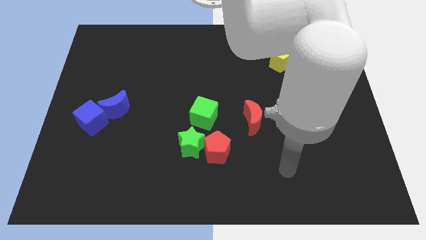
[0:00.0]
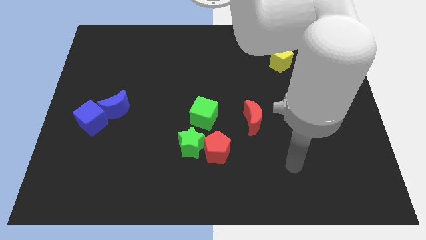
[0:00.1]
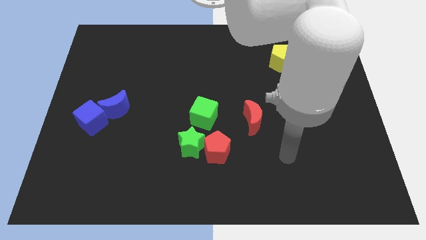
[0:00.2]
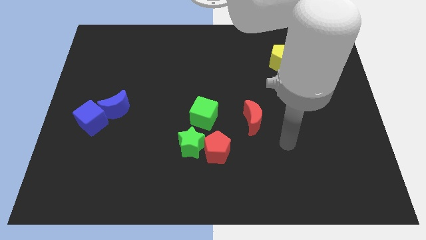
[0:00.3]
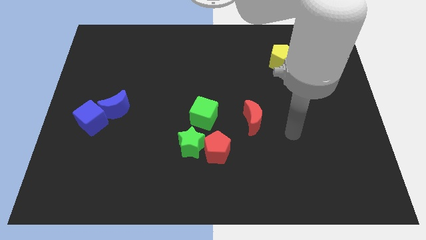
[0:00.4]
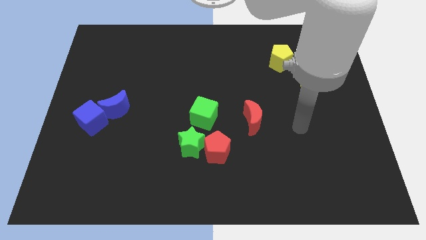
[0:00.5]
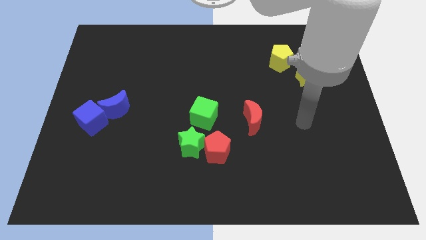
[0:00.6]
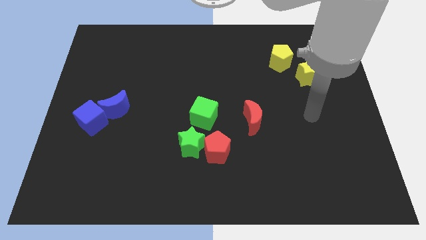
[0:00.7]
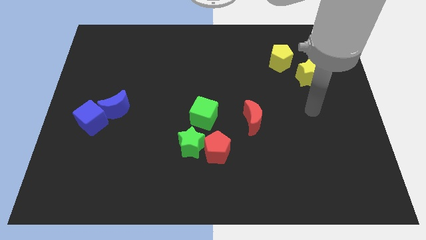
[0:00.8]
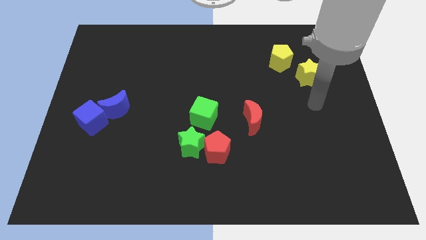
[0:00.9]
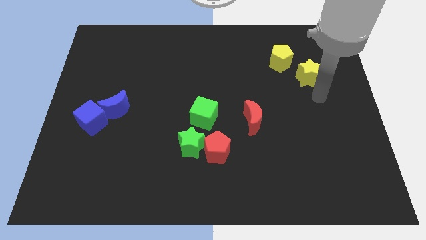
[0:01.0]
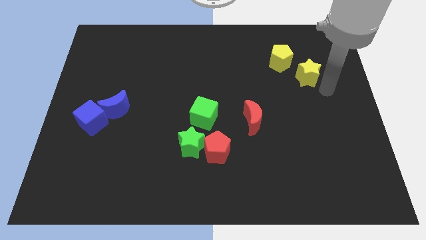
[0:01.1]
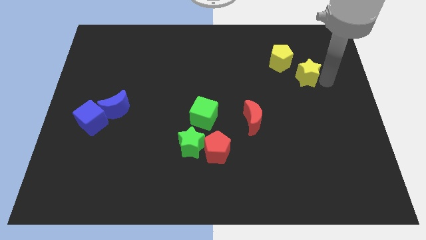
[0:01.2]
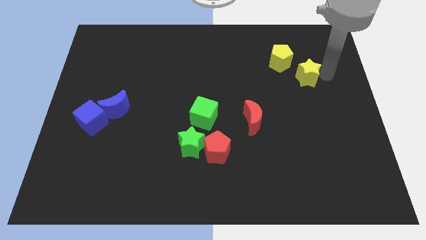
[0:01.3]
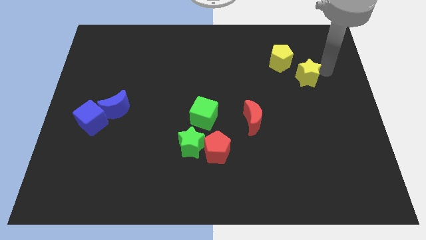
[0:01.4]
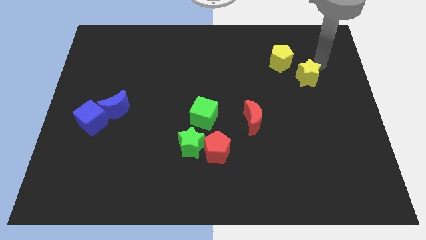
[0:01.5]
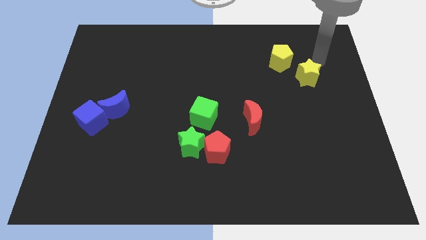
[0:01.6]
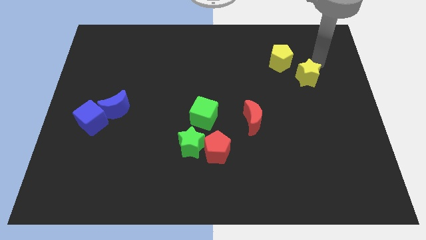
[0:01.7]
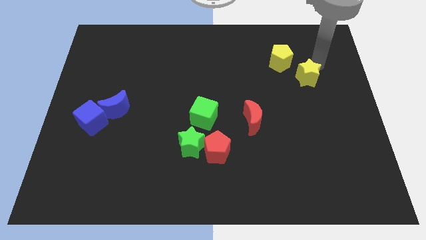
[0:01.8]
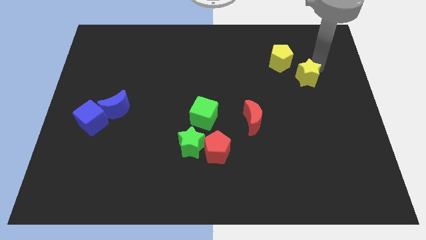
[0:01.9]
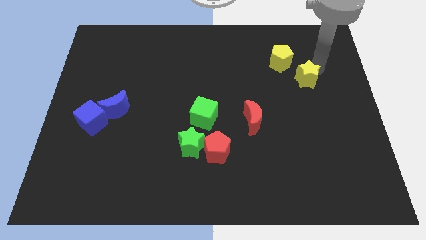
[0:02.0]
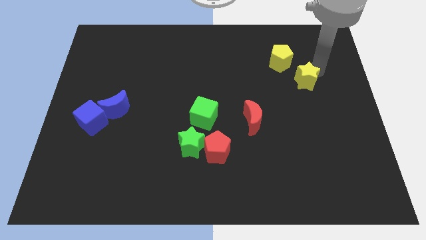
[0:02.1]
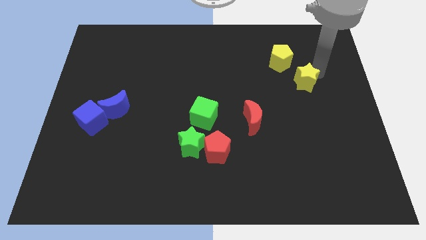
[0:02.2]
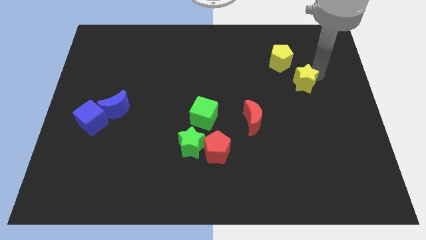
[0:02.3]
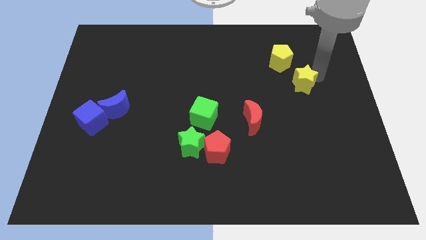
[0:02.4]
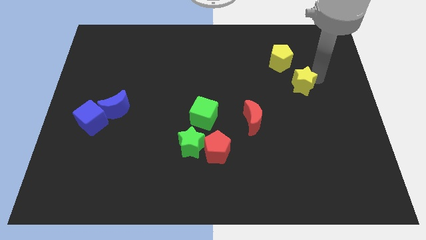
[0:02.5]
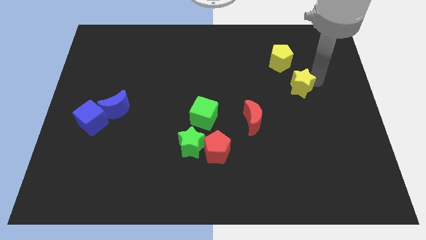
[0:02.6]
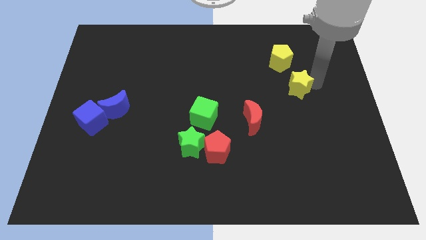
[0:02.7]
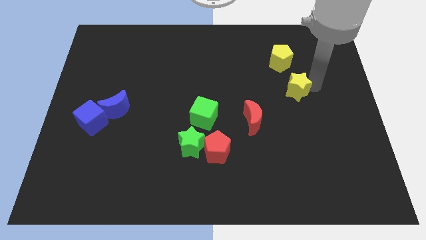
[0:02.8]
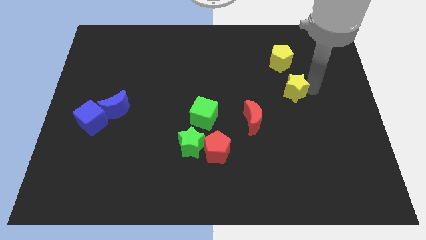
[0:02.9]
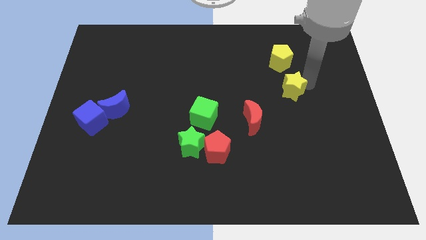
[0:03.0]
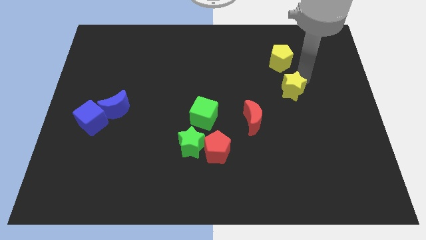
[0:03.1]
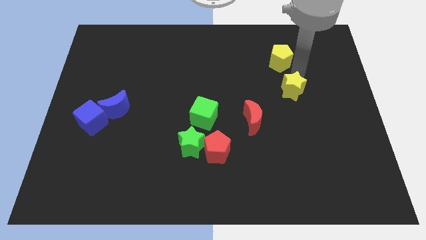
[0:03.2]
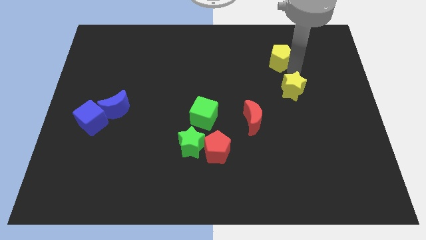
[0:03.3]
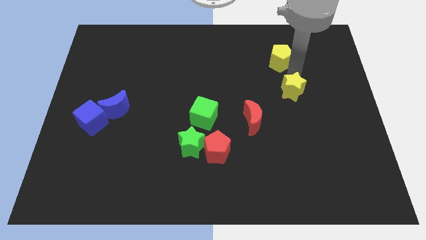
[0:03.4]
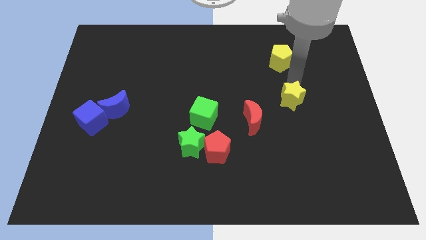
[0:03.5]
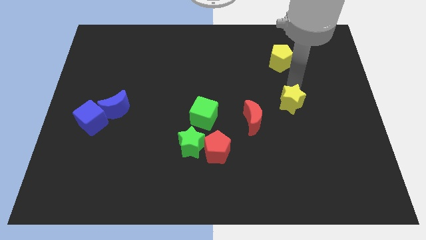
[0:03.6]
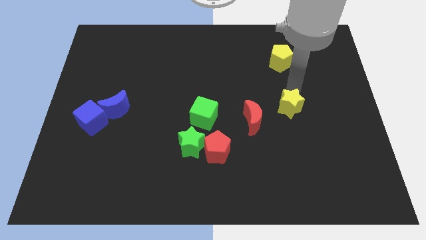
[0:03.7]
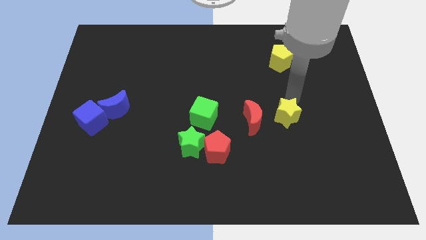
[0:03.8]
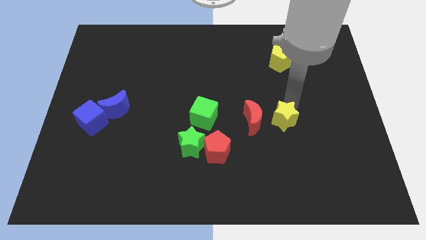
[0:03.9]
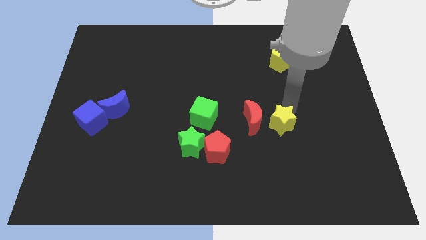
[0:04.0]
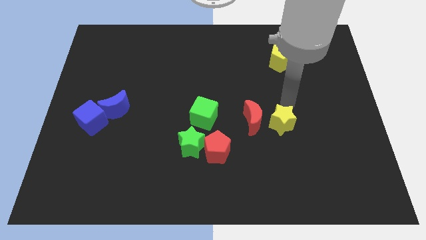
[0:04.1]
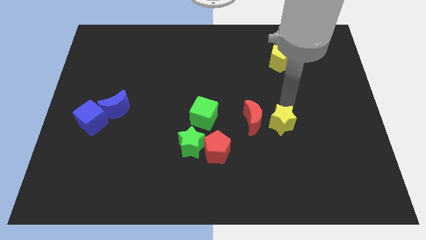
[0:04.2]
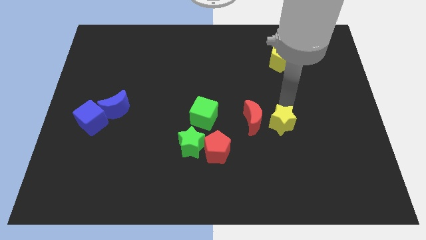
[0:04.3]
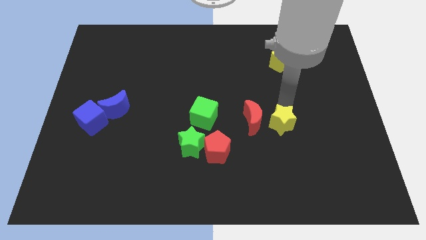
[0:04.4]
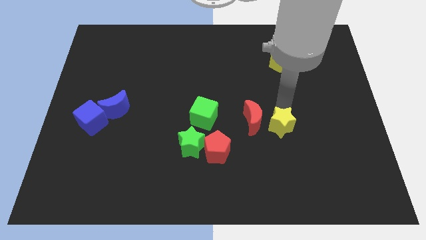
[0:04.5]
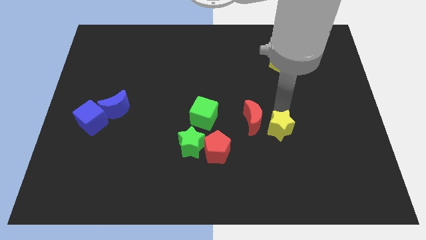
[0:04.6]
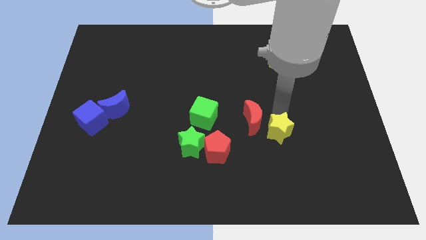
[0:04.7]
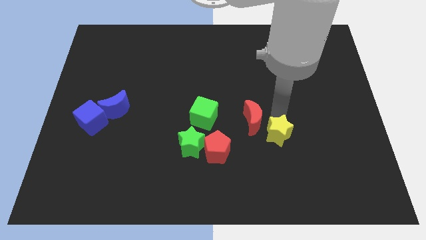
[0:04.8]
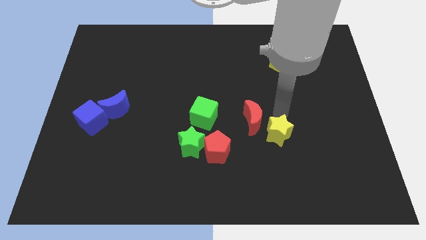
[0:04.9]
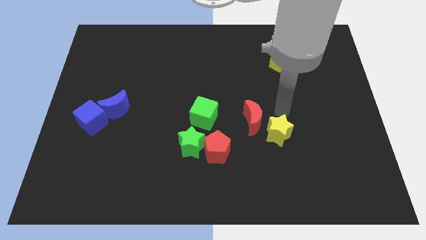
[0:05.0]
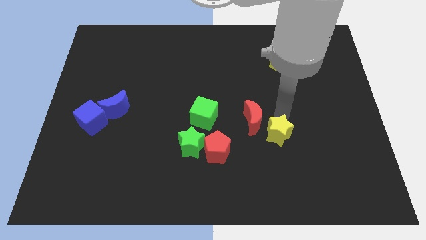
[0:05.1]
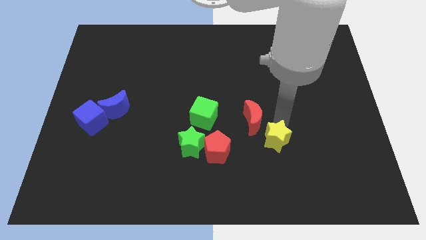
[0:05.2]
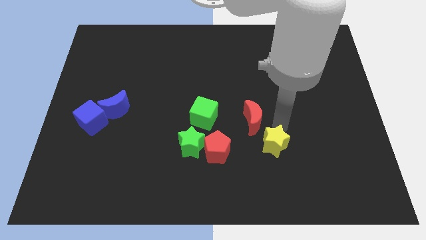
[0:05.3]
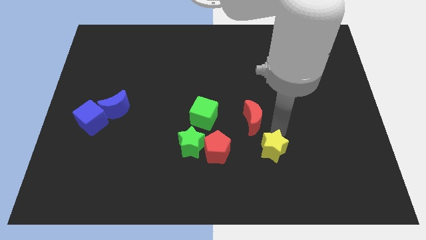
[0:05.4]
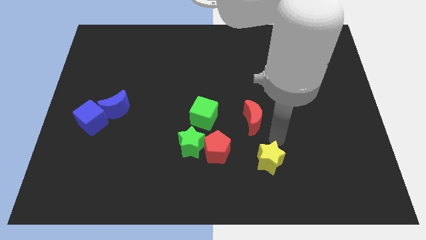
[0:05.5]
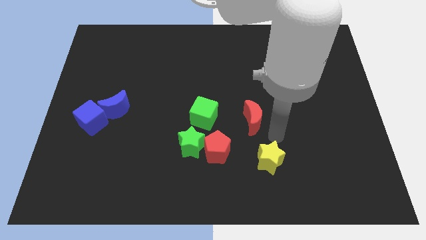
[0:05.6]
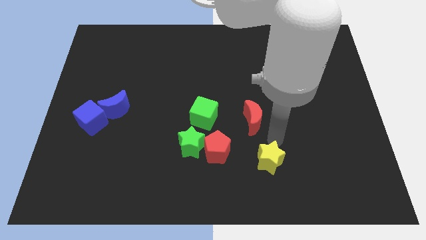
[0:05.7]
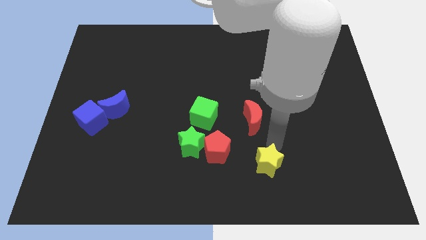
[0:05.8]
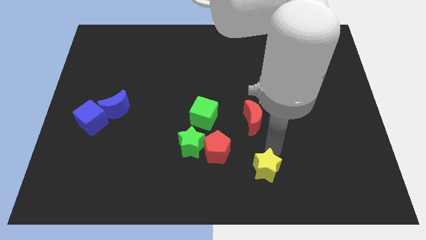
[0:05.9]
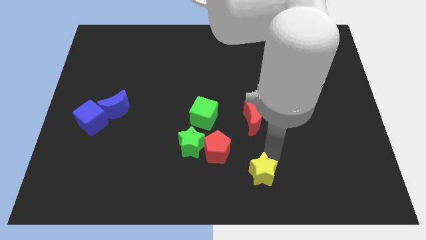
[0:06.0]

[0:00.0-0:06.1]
slide the yellow star to the bottom side

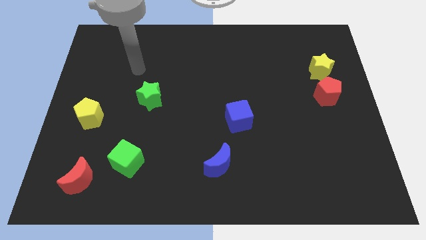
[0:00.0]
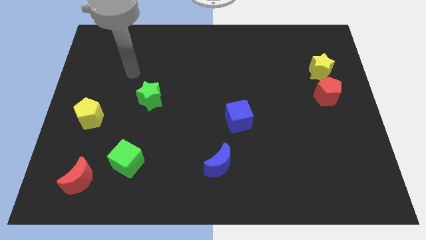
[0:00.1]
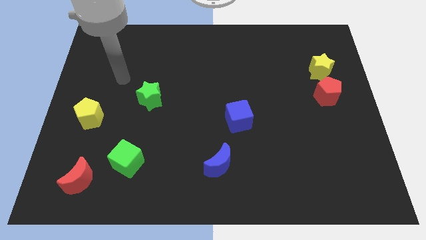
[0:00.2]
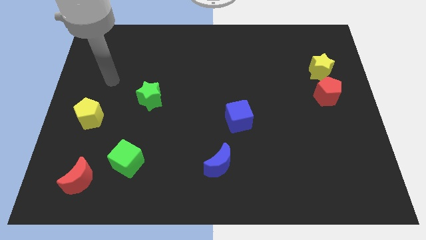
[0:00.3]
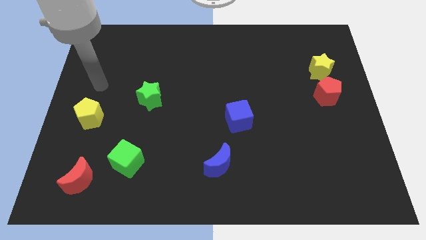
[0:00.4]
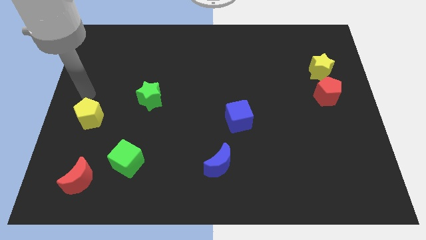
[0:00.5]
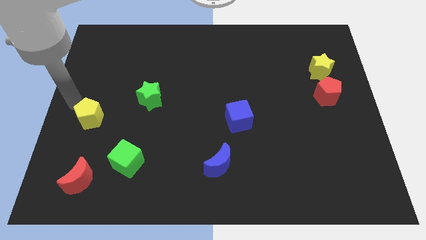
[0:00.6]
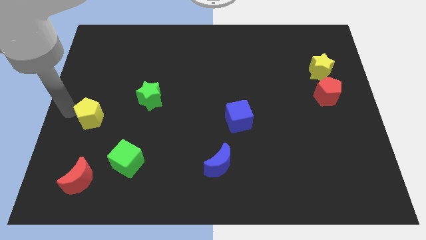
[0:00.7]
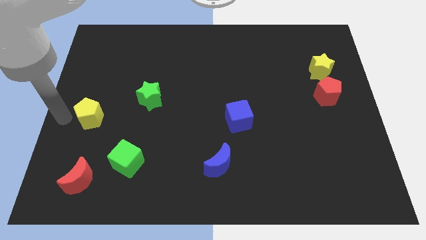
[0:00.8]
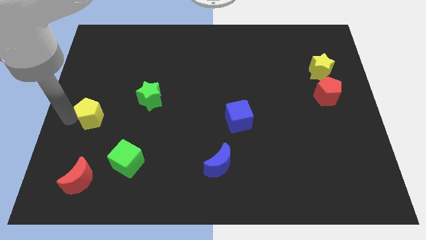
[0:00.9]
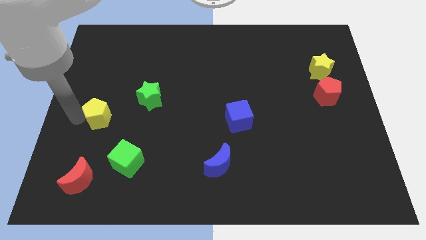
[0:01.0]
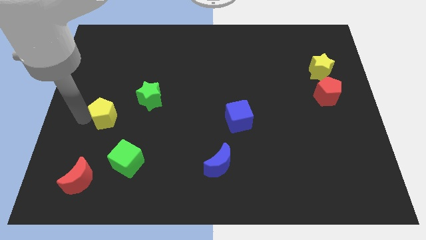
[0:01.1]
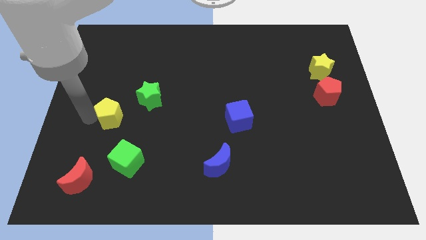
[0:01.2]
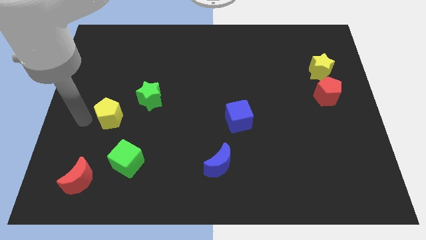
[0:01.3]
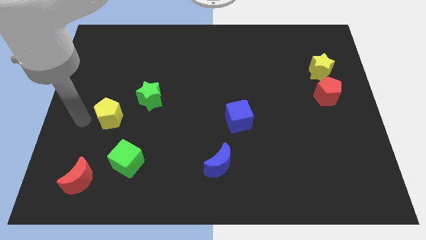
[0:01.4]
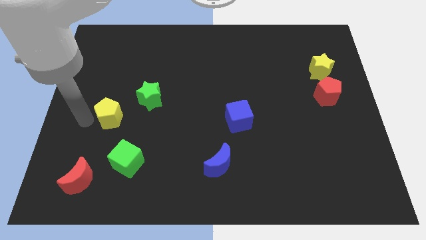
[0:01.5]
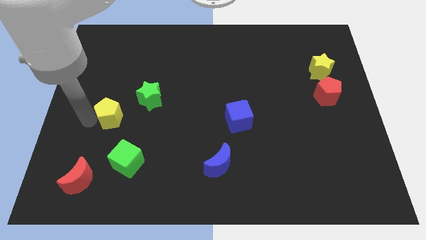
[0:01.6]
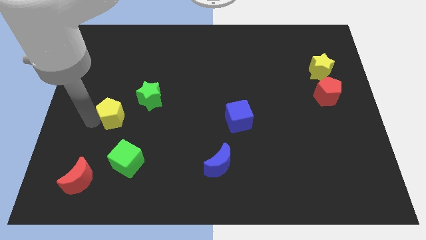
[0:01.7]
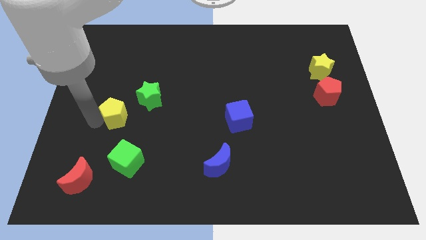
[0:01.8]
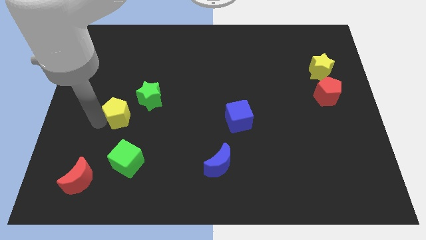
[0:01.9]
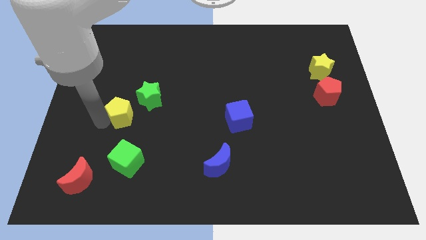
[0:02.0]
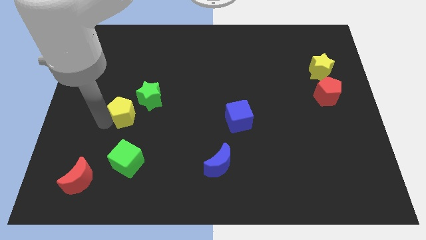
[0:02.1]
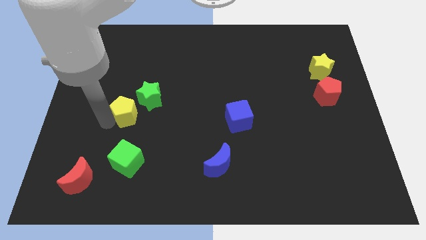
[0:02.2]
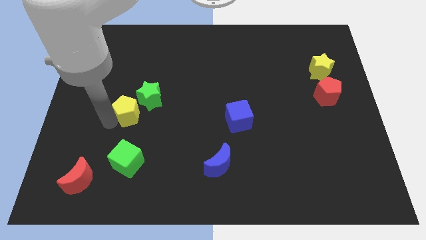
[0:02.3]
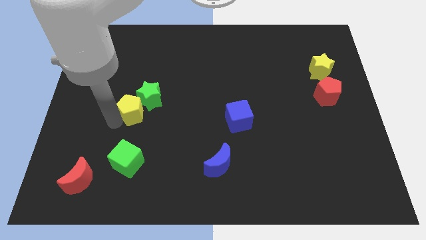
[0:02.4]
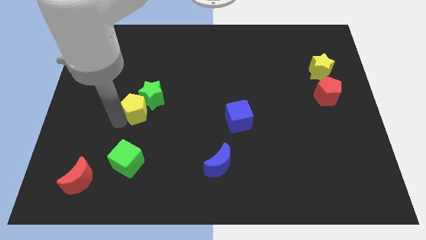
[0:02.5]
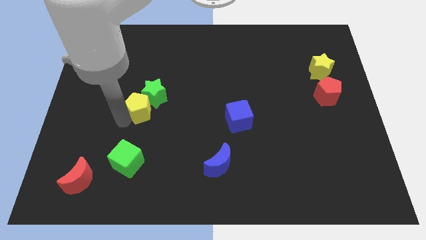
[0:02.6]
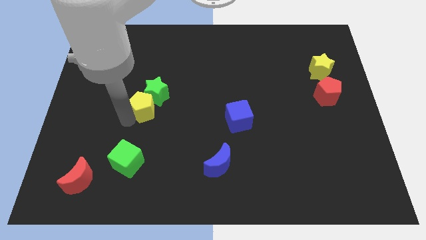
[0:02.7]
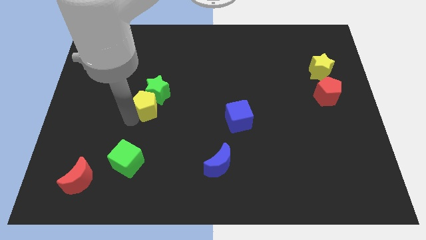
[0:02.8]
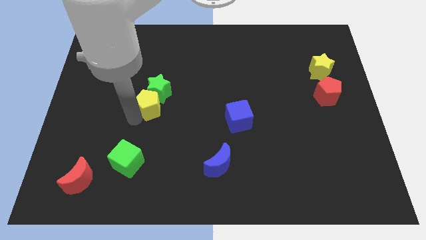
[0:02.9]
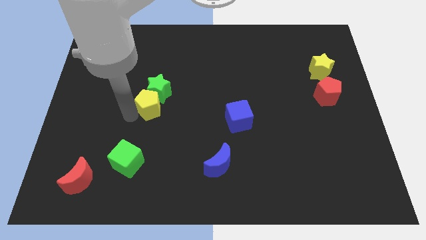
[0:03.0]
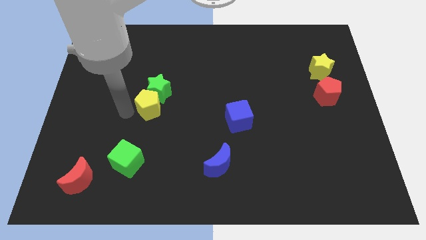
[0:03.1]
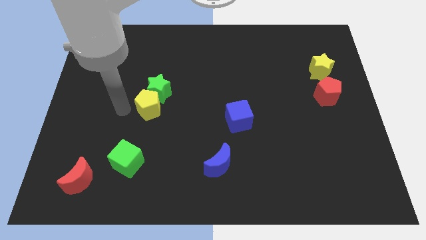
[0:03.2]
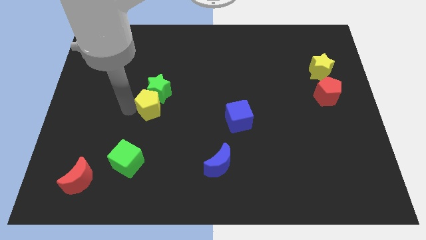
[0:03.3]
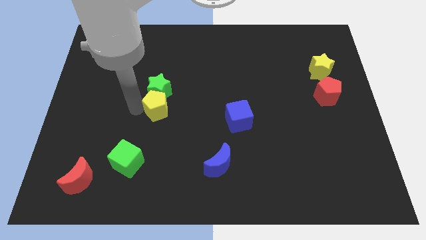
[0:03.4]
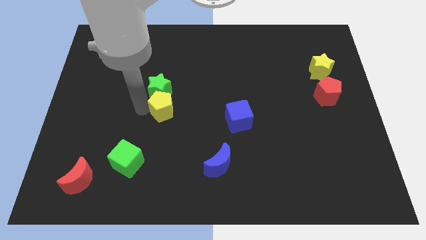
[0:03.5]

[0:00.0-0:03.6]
slide the yellow pentagon to the center of the board
